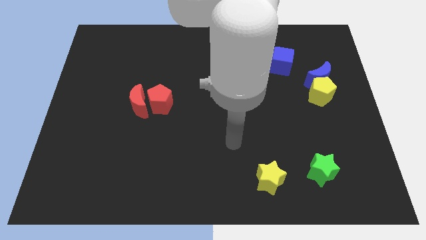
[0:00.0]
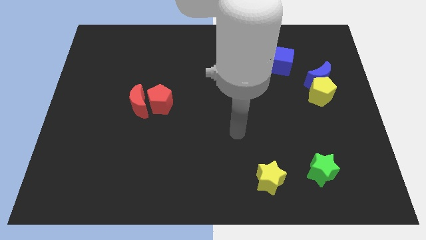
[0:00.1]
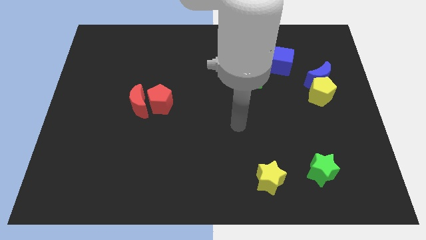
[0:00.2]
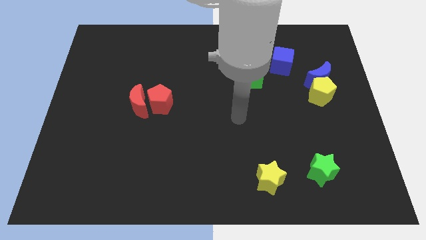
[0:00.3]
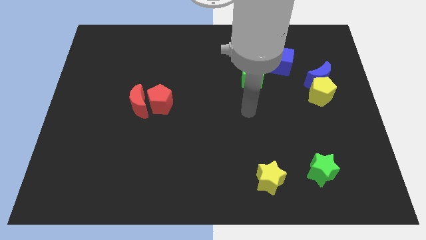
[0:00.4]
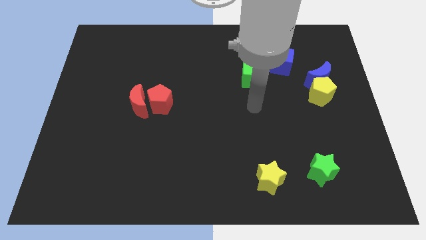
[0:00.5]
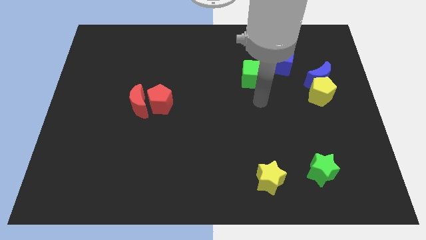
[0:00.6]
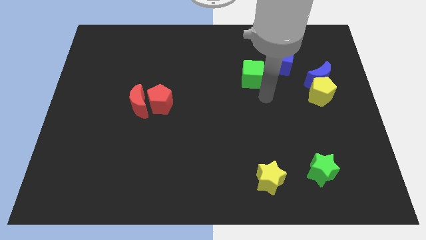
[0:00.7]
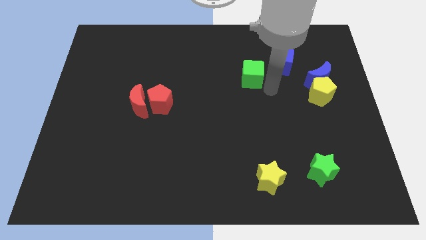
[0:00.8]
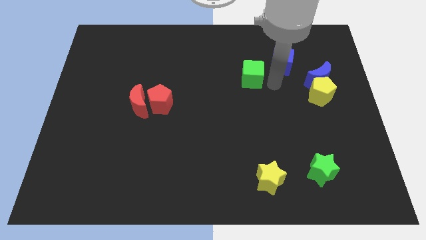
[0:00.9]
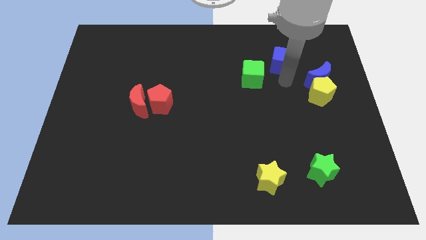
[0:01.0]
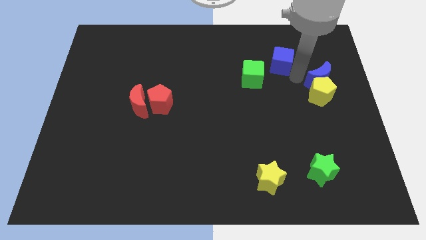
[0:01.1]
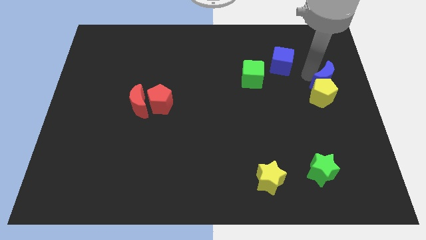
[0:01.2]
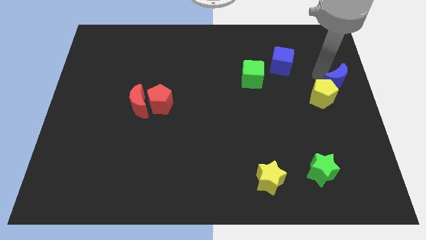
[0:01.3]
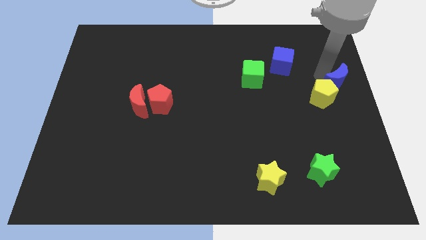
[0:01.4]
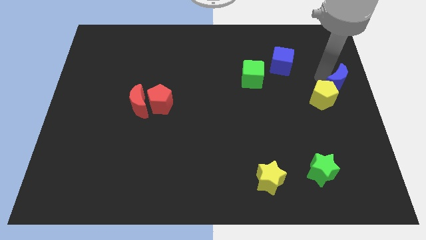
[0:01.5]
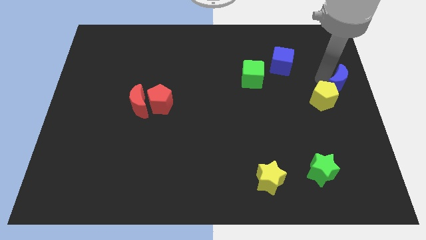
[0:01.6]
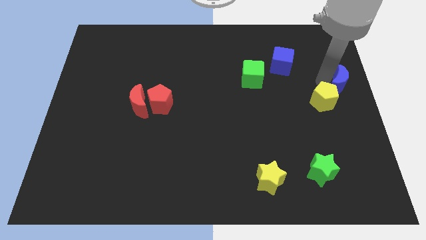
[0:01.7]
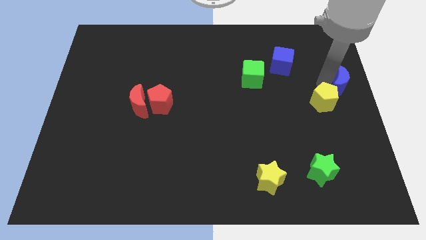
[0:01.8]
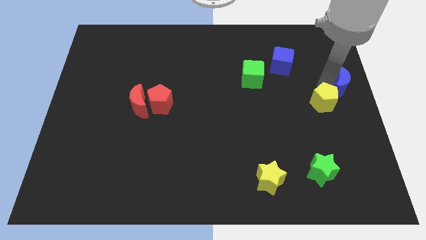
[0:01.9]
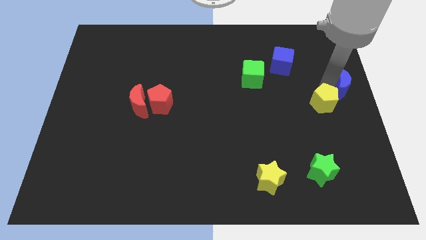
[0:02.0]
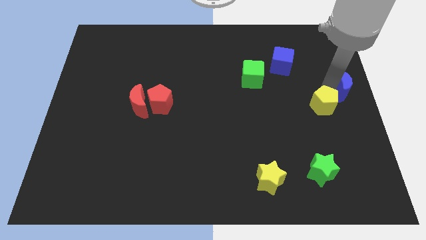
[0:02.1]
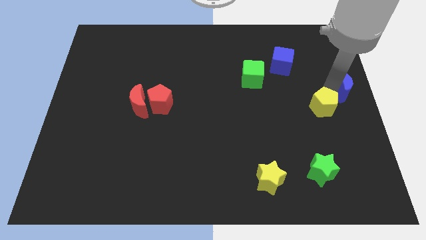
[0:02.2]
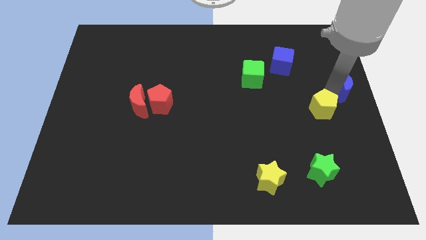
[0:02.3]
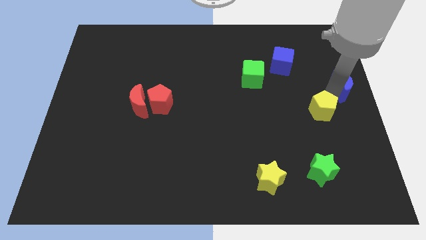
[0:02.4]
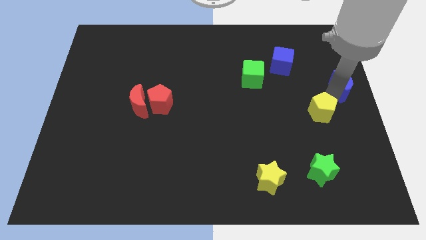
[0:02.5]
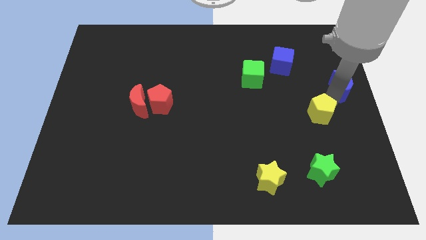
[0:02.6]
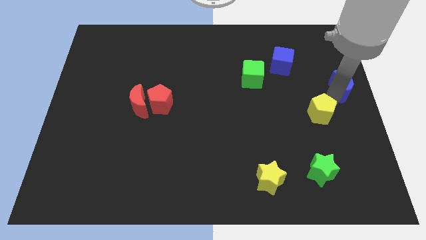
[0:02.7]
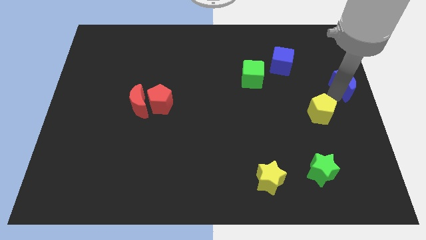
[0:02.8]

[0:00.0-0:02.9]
move the yellow pentagon away from the blue moon

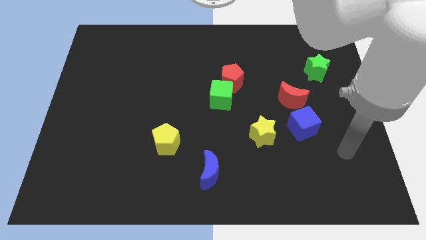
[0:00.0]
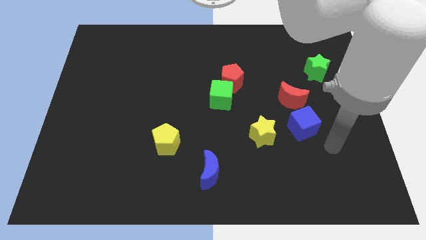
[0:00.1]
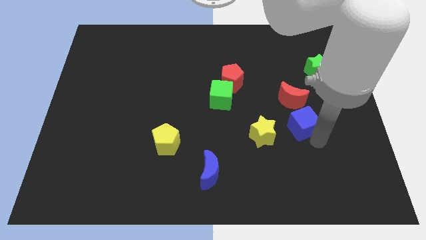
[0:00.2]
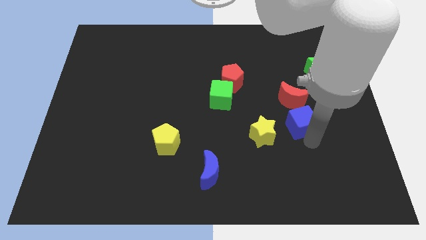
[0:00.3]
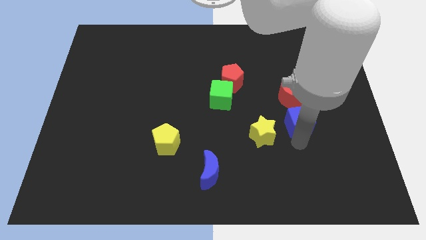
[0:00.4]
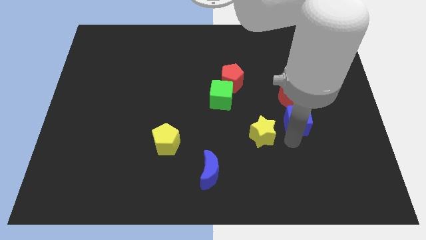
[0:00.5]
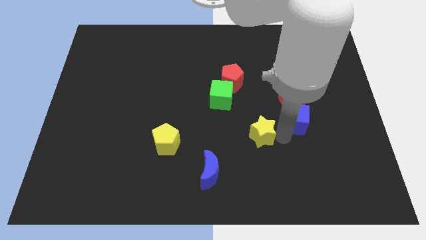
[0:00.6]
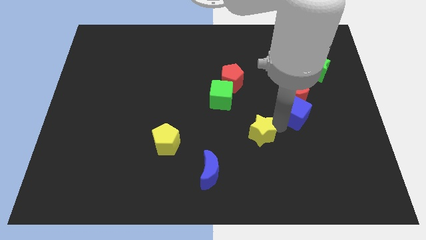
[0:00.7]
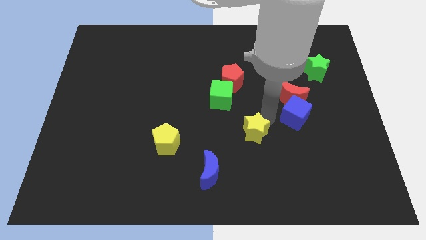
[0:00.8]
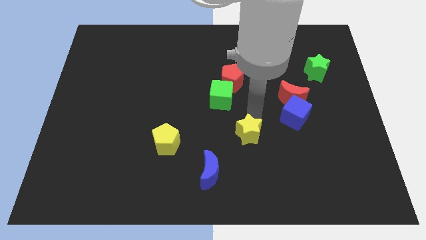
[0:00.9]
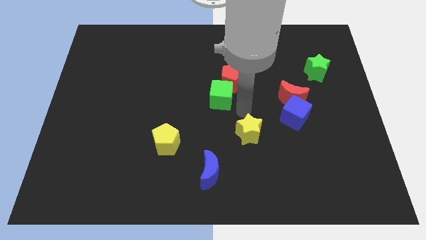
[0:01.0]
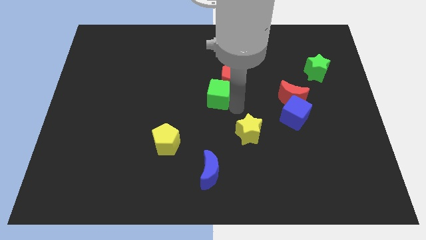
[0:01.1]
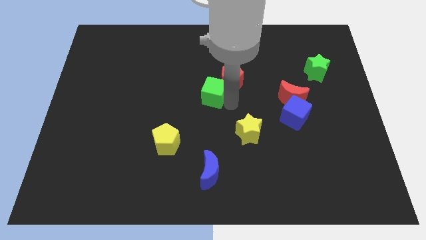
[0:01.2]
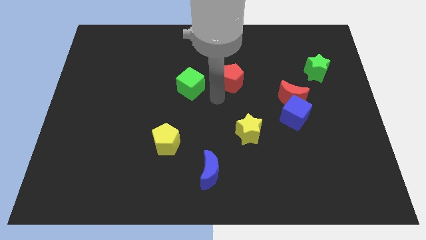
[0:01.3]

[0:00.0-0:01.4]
pull the red pentagon apart from the green cube

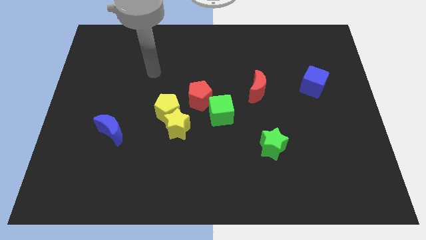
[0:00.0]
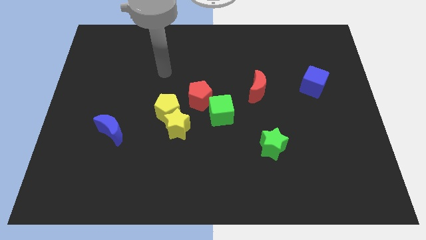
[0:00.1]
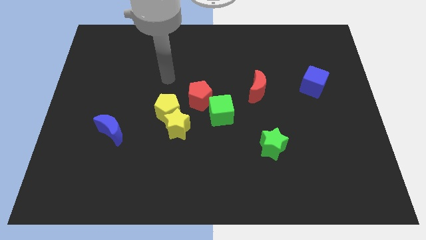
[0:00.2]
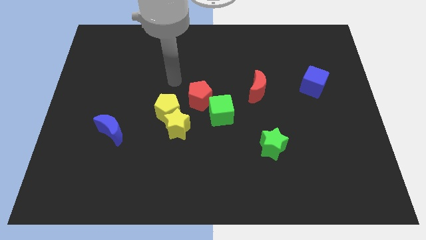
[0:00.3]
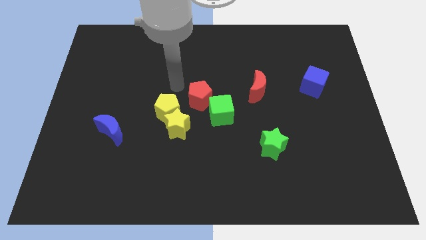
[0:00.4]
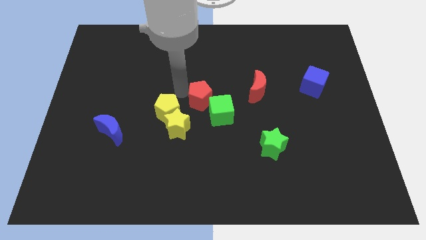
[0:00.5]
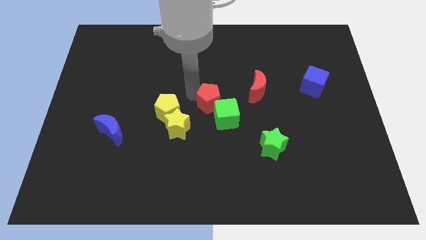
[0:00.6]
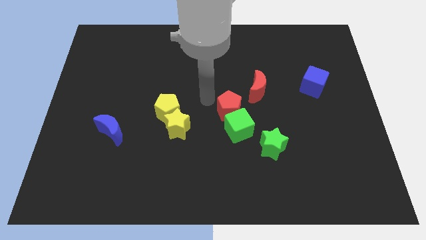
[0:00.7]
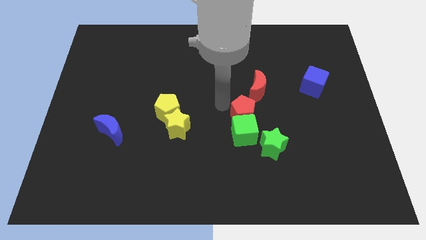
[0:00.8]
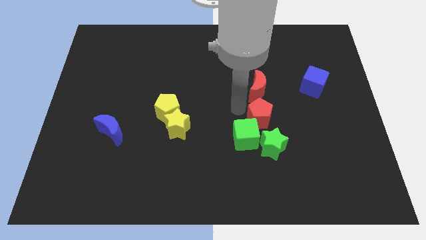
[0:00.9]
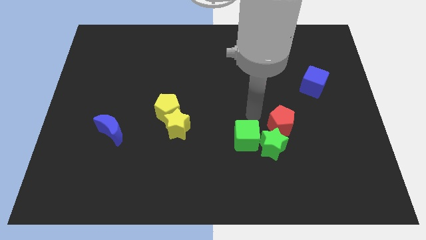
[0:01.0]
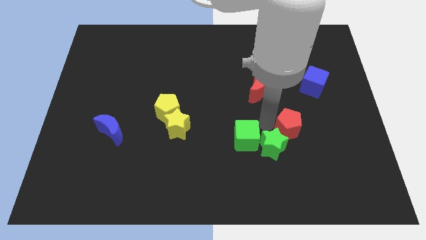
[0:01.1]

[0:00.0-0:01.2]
pull the green cube apart from the red pentagon

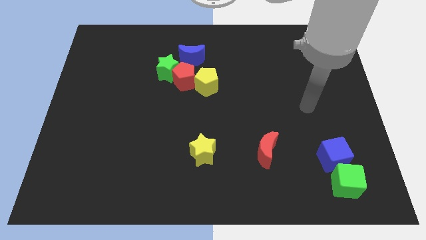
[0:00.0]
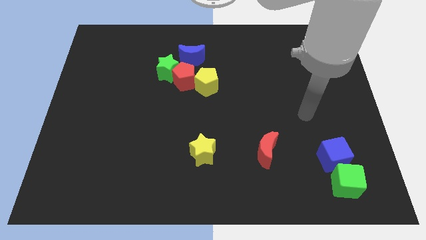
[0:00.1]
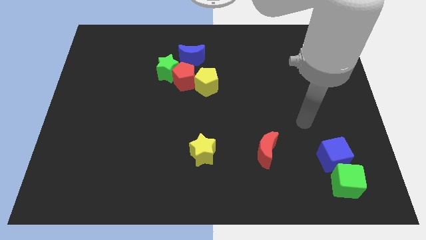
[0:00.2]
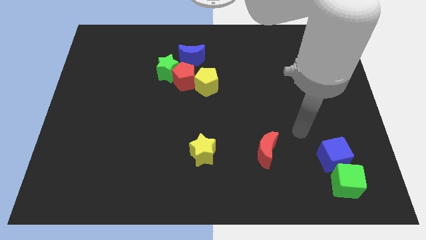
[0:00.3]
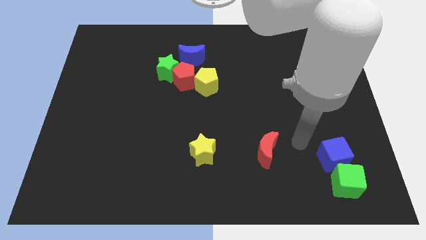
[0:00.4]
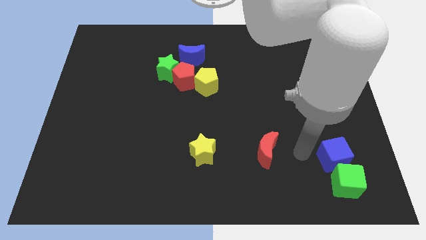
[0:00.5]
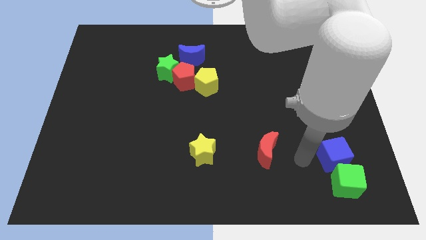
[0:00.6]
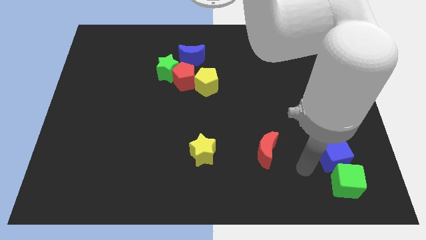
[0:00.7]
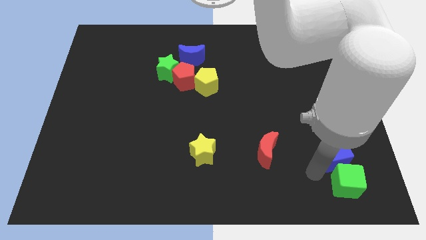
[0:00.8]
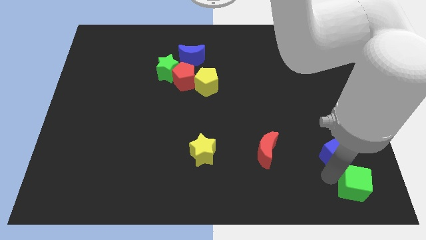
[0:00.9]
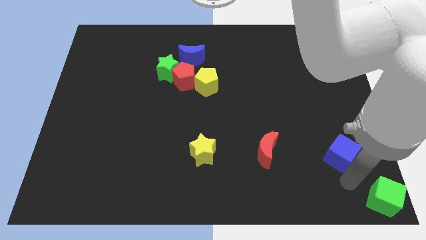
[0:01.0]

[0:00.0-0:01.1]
move the blue cube away from the green cube

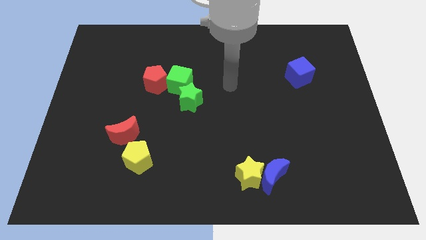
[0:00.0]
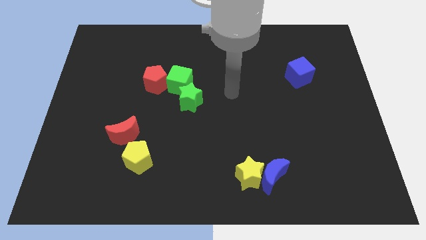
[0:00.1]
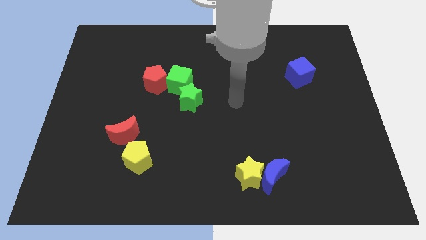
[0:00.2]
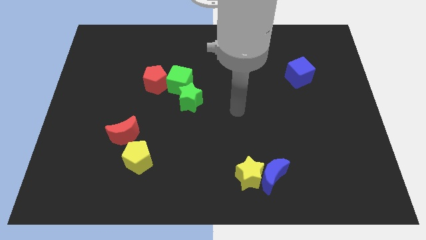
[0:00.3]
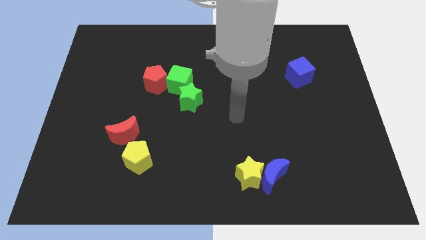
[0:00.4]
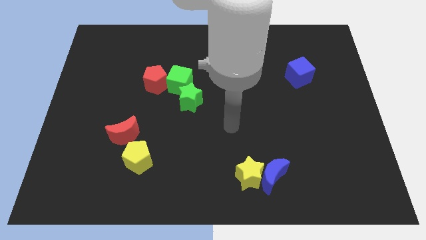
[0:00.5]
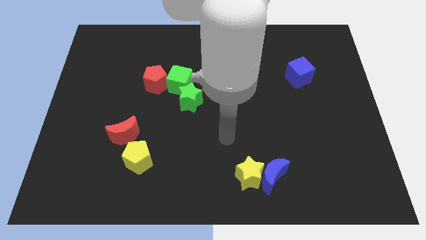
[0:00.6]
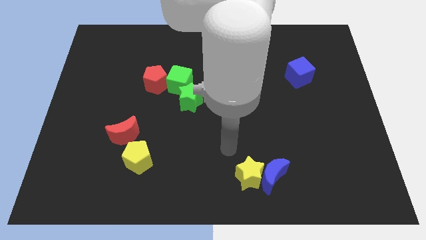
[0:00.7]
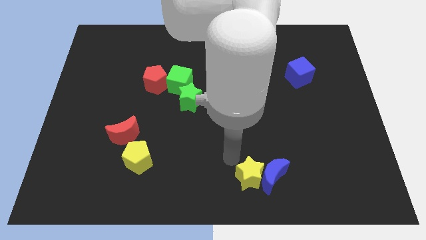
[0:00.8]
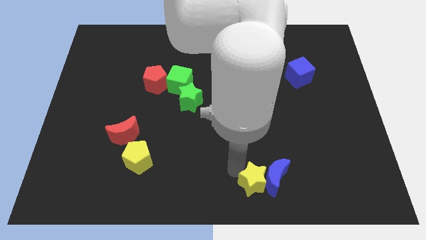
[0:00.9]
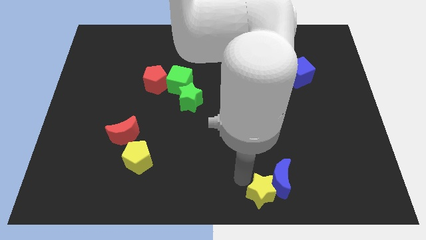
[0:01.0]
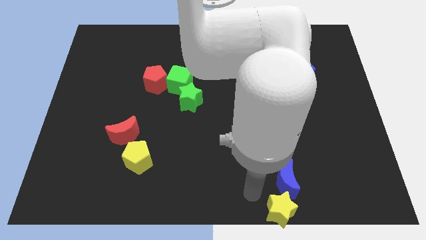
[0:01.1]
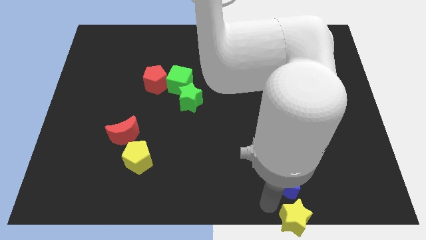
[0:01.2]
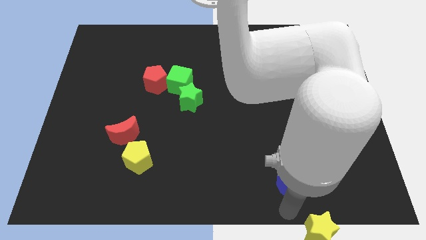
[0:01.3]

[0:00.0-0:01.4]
separate the blue moon from the yellow star

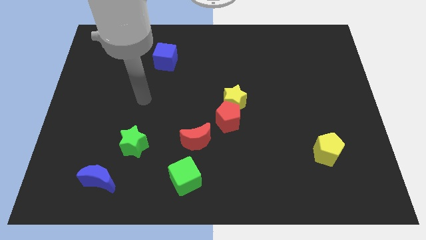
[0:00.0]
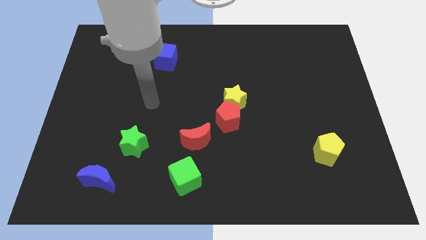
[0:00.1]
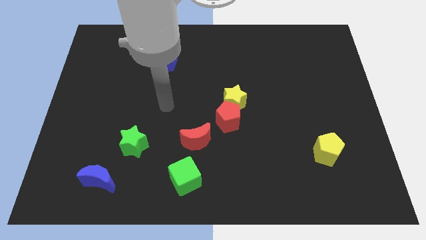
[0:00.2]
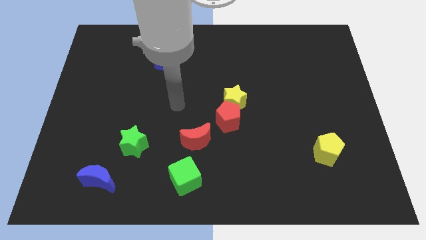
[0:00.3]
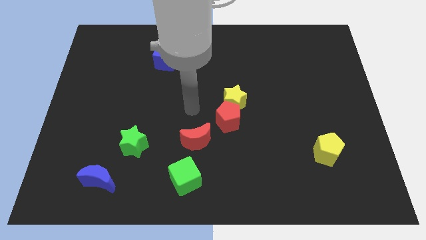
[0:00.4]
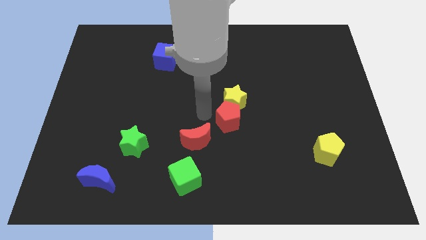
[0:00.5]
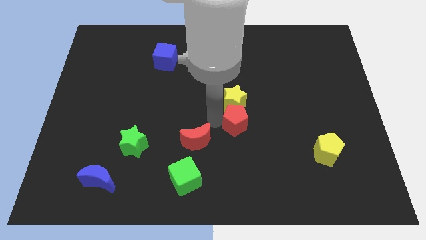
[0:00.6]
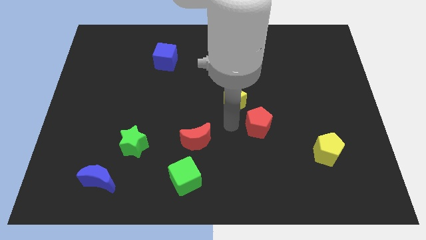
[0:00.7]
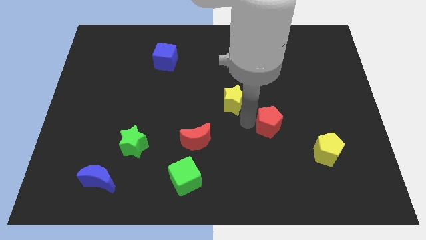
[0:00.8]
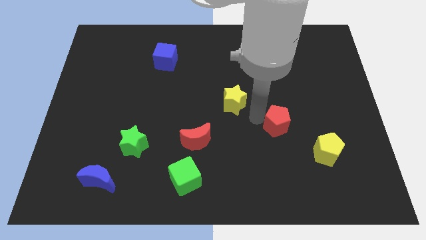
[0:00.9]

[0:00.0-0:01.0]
move the yellow star away from the red pentagon

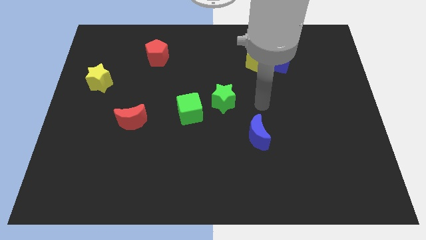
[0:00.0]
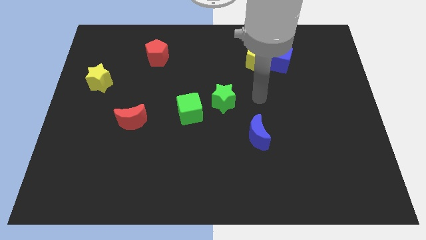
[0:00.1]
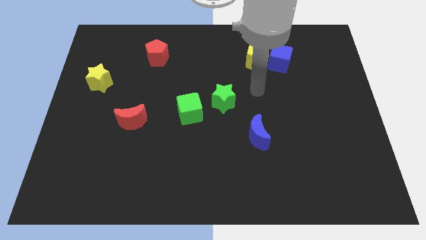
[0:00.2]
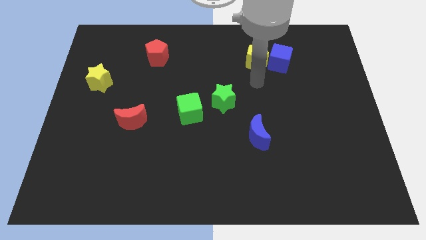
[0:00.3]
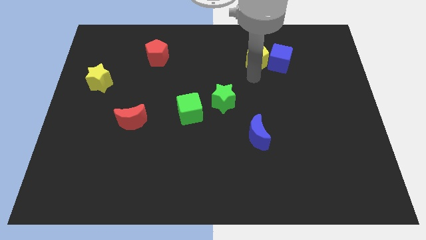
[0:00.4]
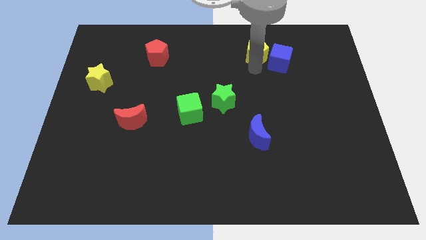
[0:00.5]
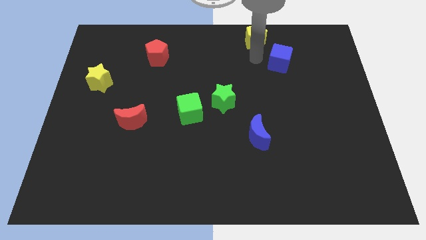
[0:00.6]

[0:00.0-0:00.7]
move the blue cube away from the yellow pentagon
